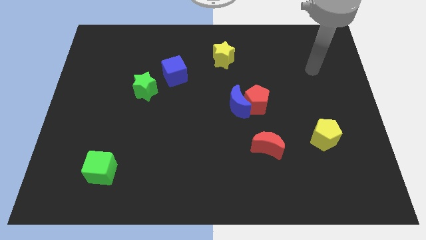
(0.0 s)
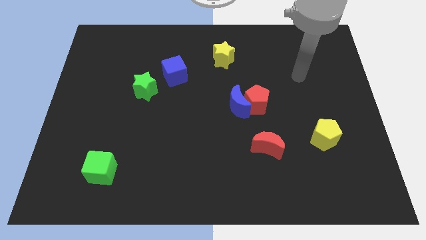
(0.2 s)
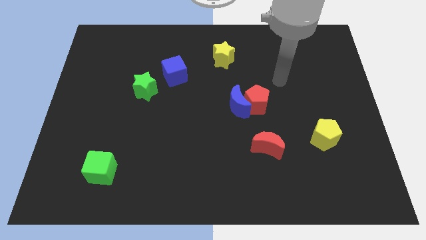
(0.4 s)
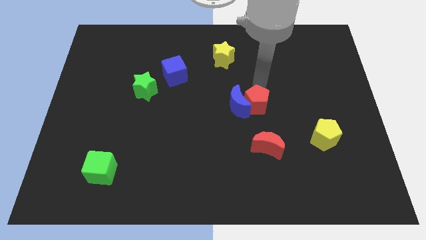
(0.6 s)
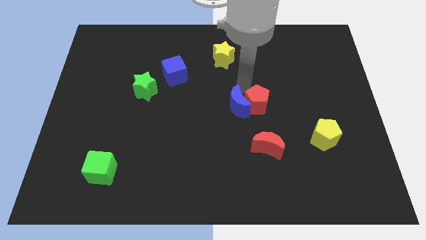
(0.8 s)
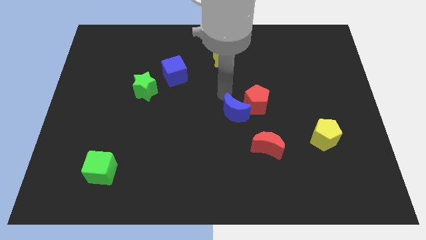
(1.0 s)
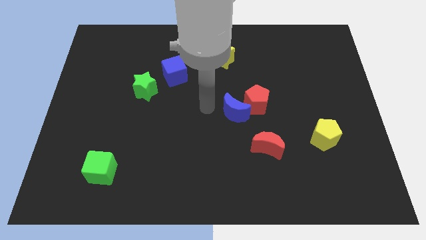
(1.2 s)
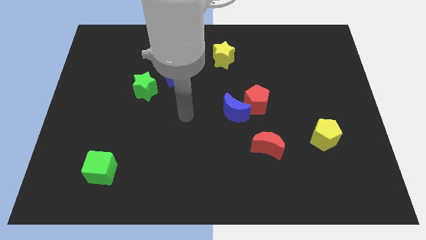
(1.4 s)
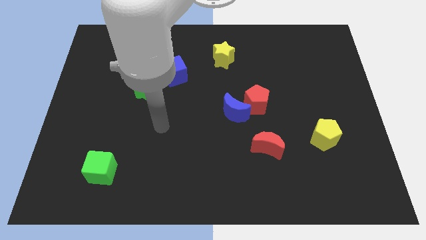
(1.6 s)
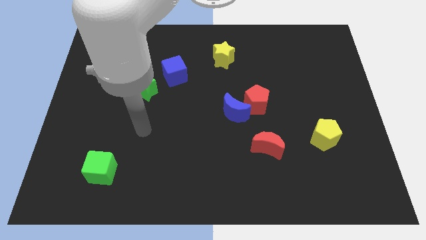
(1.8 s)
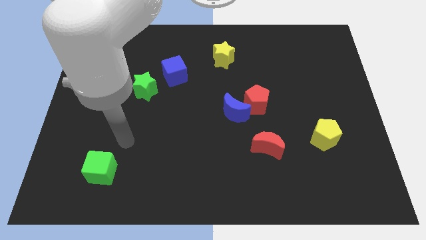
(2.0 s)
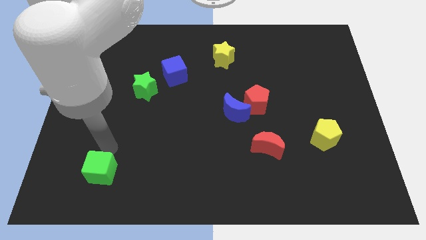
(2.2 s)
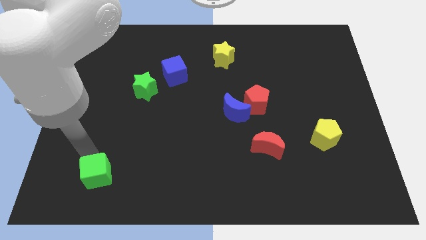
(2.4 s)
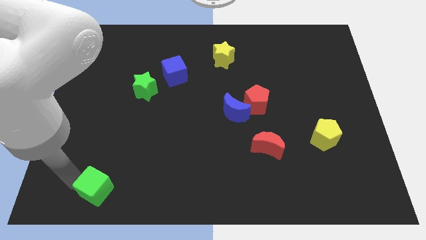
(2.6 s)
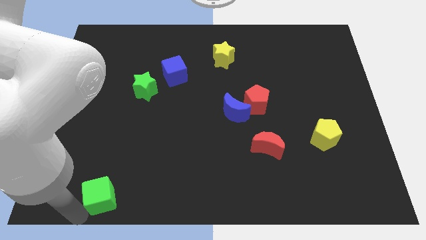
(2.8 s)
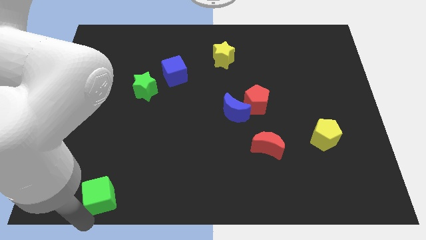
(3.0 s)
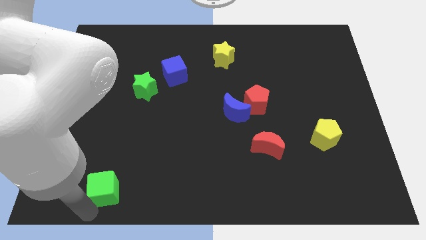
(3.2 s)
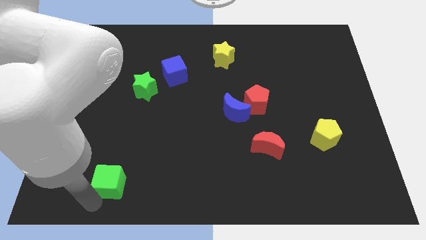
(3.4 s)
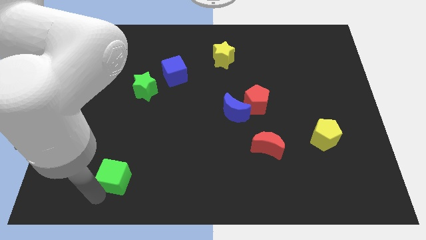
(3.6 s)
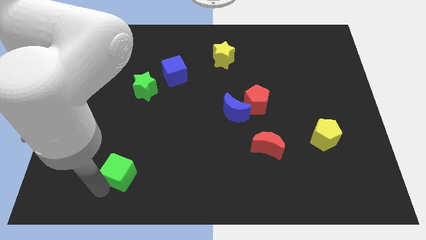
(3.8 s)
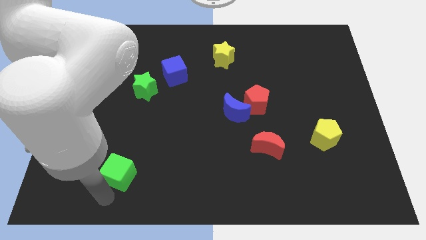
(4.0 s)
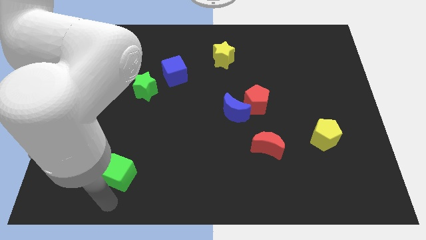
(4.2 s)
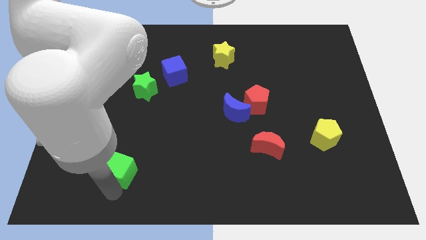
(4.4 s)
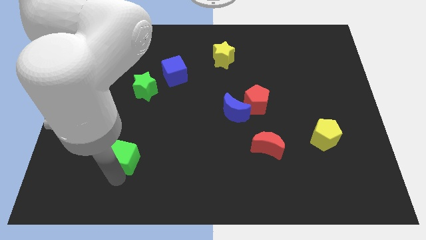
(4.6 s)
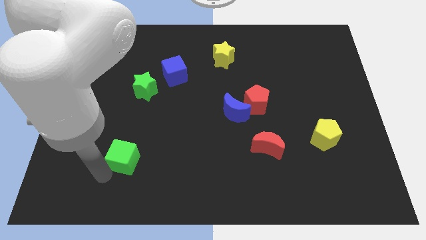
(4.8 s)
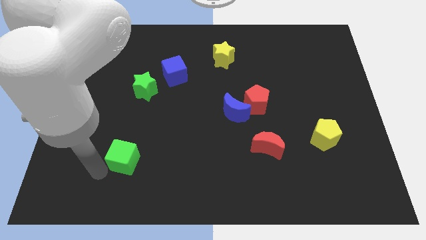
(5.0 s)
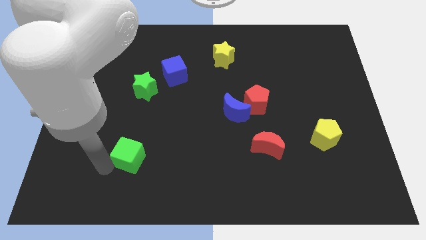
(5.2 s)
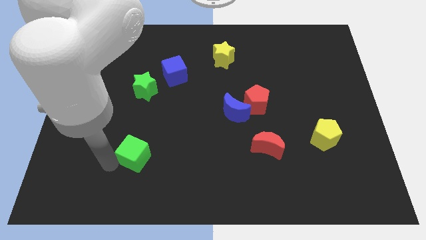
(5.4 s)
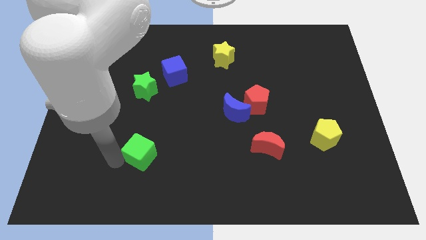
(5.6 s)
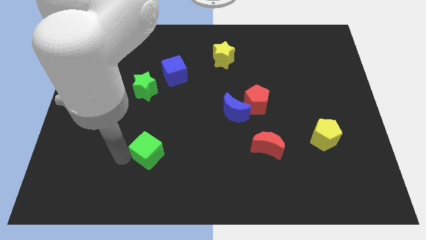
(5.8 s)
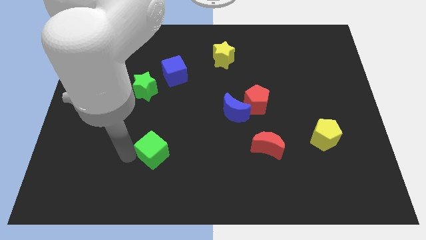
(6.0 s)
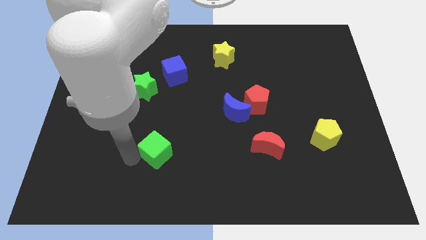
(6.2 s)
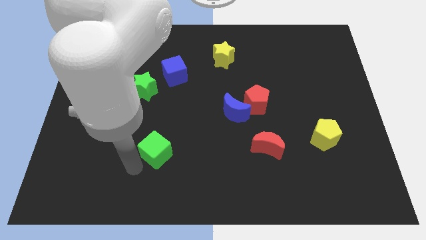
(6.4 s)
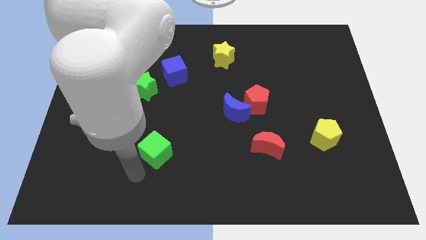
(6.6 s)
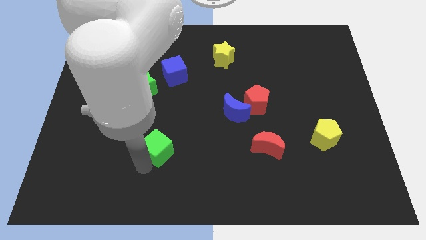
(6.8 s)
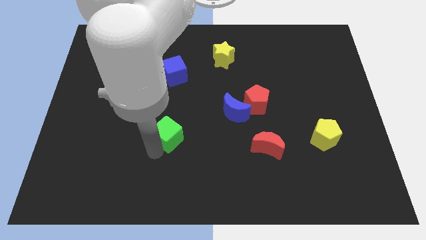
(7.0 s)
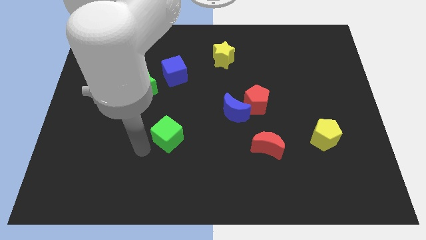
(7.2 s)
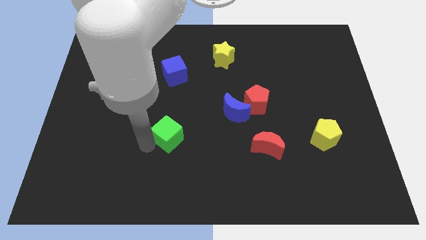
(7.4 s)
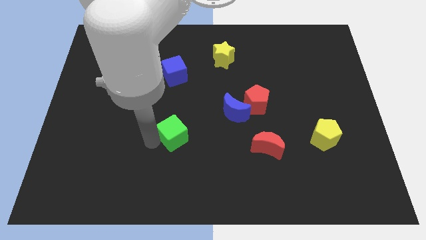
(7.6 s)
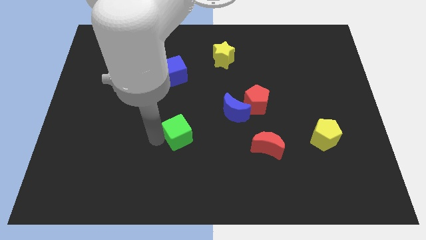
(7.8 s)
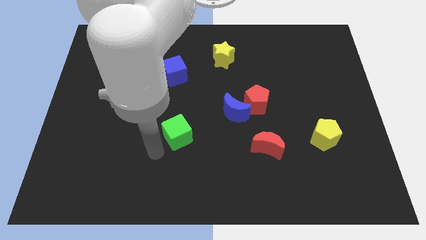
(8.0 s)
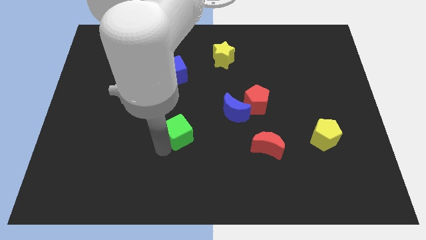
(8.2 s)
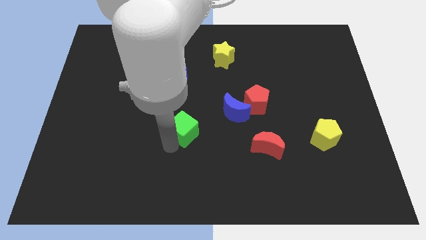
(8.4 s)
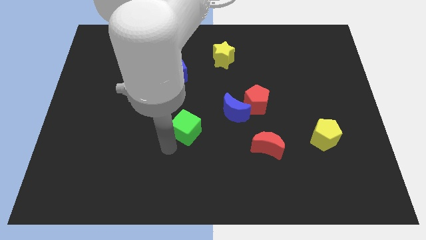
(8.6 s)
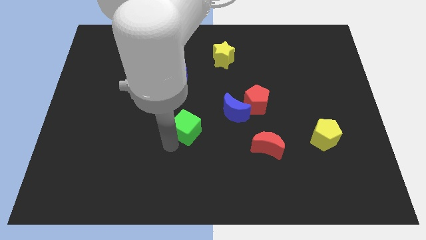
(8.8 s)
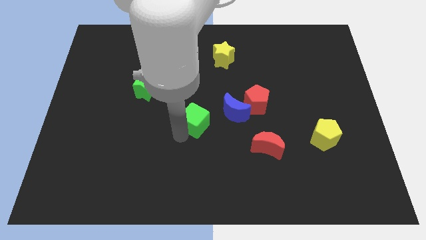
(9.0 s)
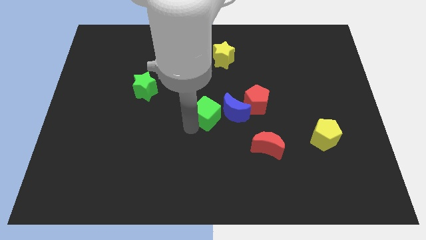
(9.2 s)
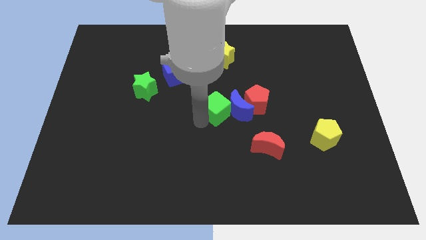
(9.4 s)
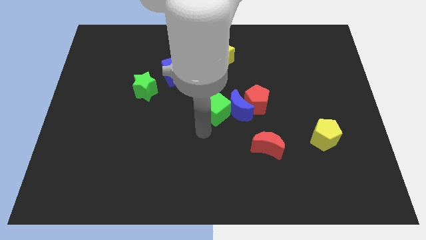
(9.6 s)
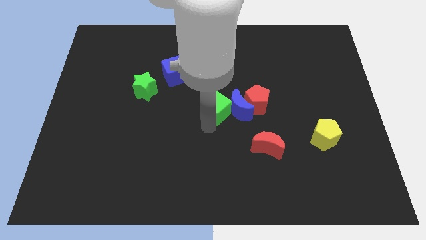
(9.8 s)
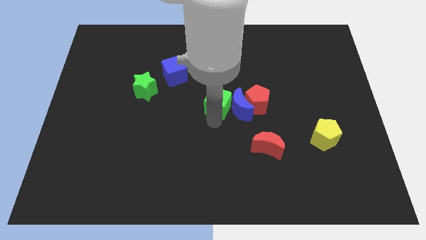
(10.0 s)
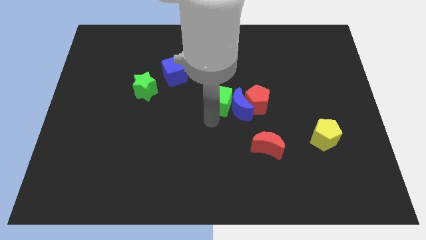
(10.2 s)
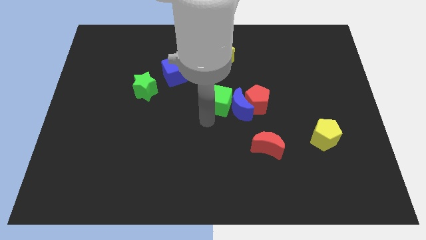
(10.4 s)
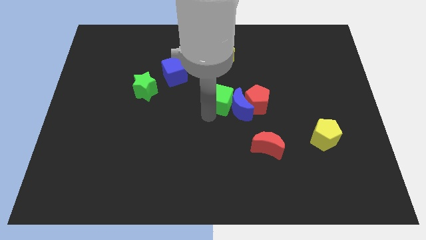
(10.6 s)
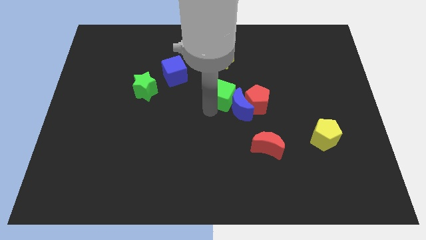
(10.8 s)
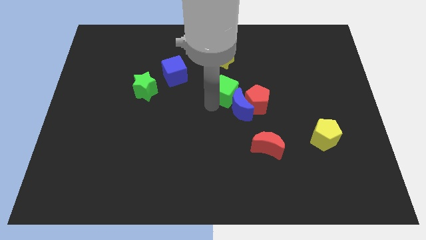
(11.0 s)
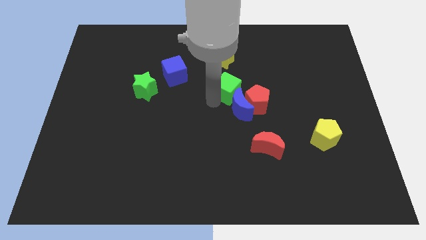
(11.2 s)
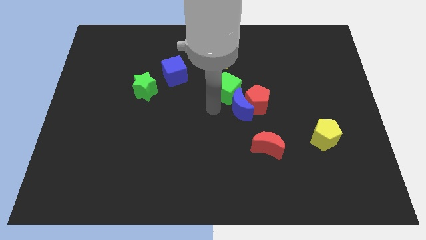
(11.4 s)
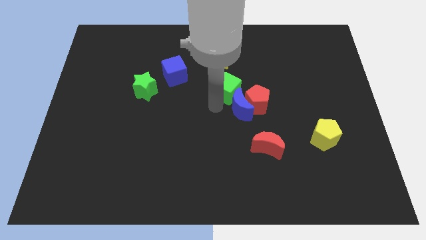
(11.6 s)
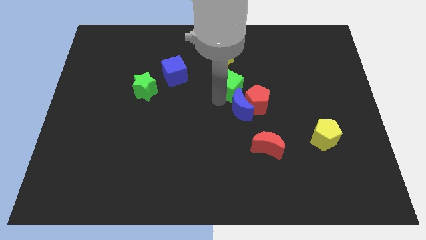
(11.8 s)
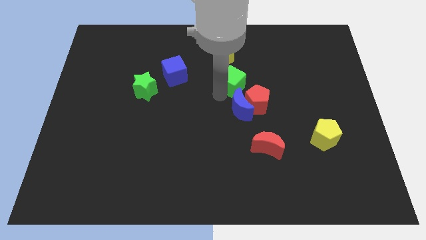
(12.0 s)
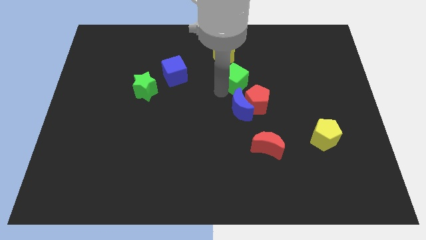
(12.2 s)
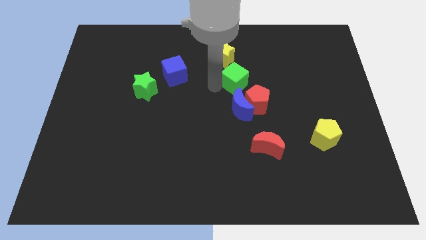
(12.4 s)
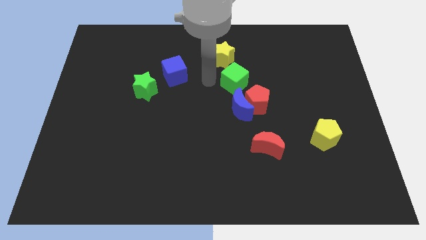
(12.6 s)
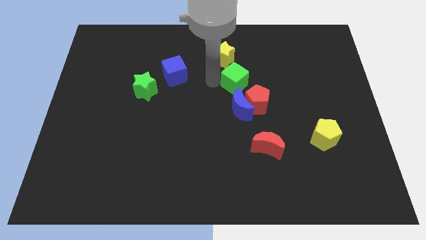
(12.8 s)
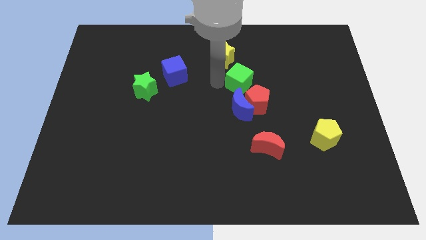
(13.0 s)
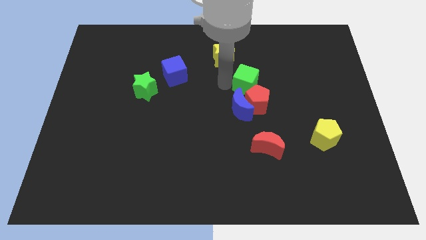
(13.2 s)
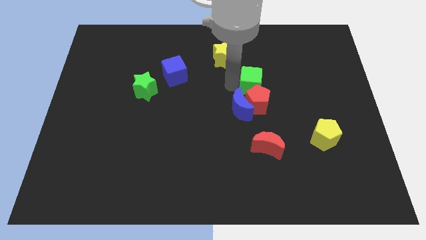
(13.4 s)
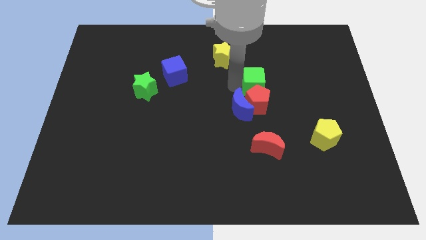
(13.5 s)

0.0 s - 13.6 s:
move the green cube to the top right side of the red pentagon

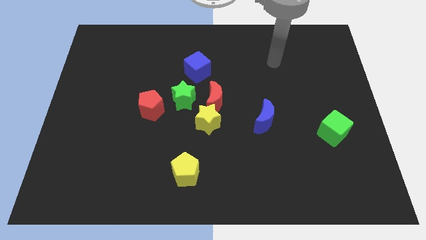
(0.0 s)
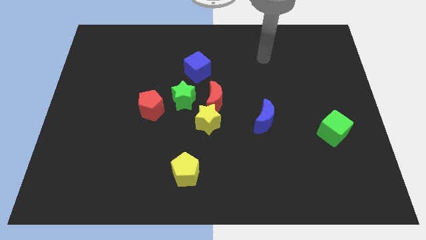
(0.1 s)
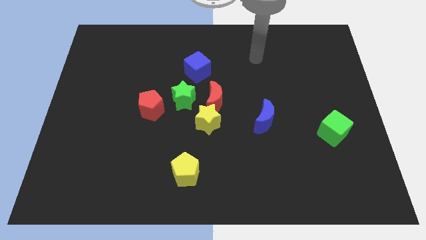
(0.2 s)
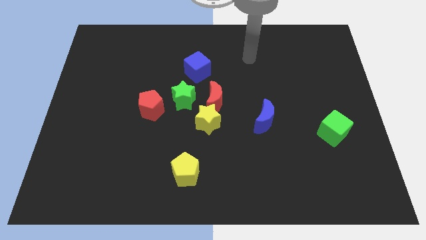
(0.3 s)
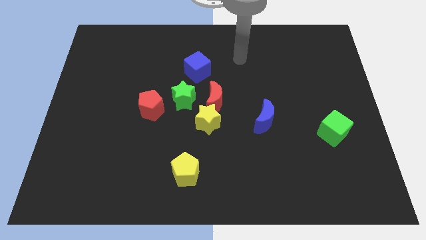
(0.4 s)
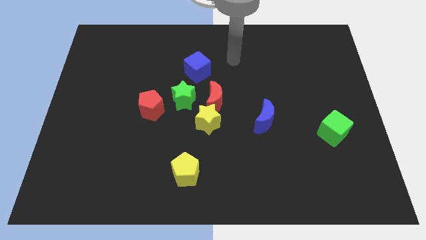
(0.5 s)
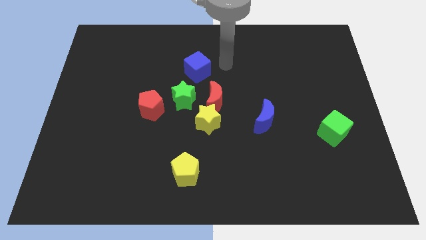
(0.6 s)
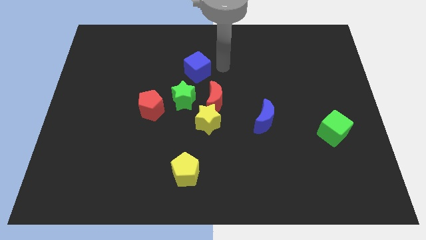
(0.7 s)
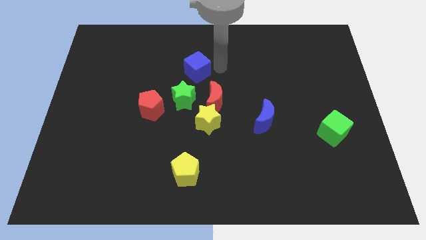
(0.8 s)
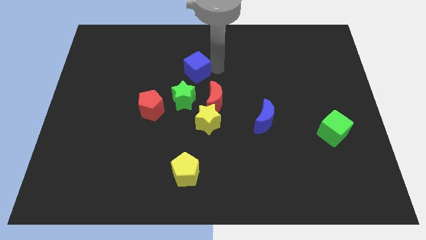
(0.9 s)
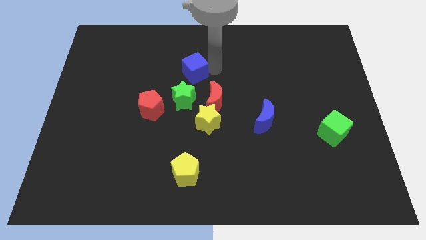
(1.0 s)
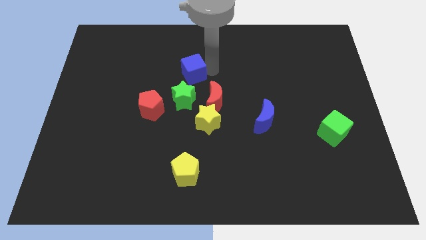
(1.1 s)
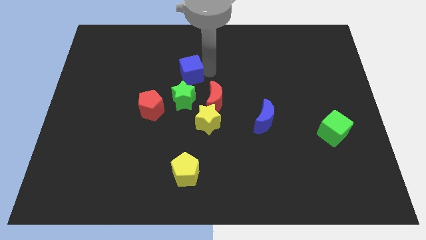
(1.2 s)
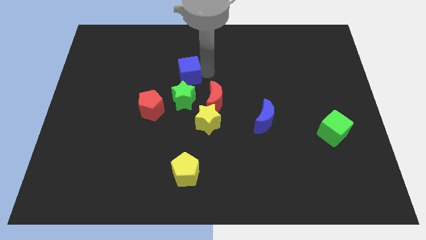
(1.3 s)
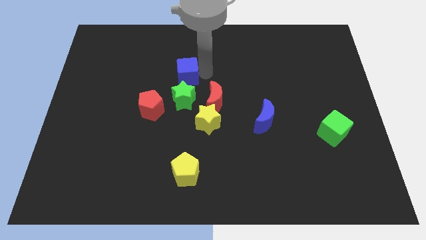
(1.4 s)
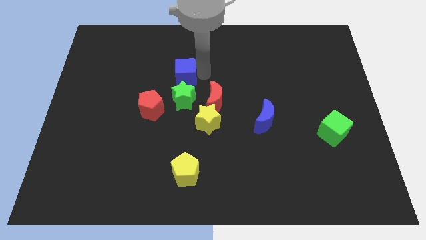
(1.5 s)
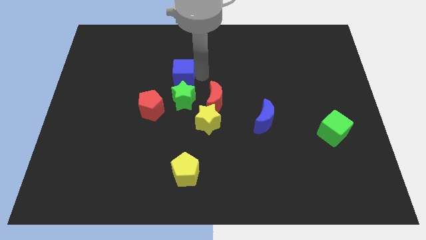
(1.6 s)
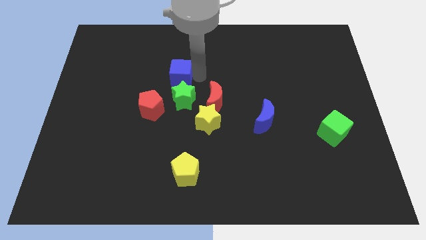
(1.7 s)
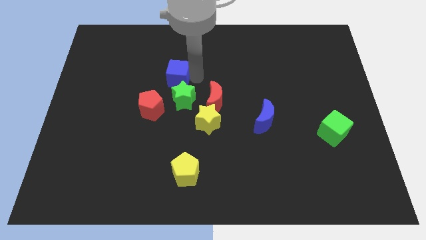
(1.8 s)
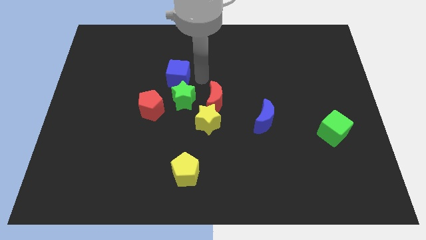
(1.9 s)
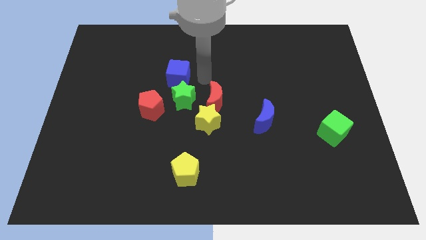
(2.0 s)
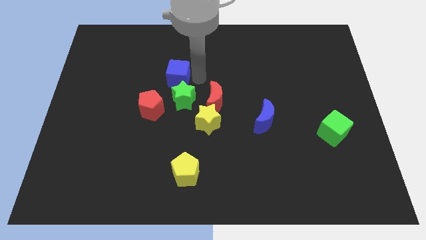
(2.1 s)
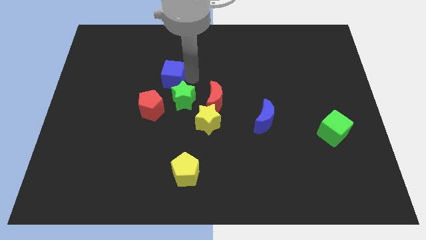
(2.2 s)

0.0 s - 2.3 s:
move the blue cube above the red pentagon
